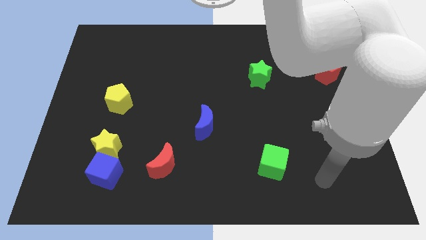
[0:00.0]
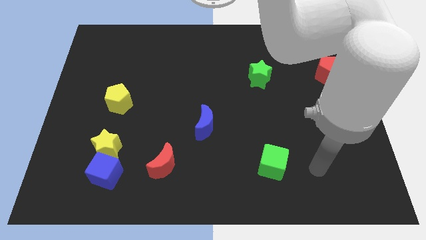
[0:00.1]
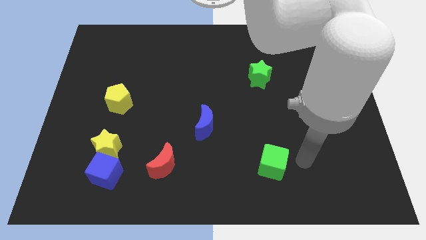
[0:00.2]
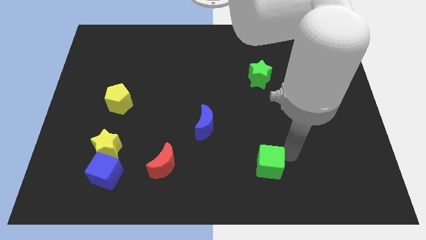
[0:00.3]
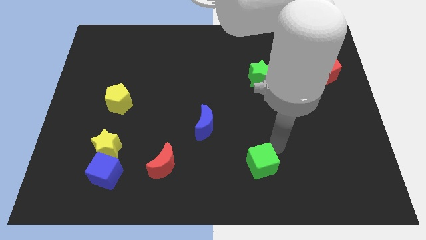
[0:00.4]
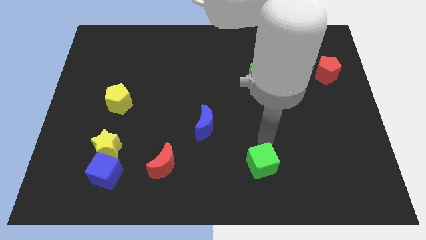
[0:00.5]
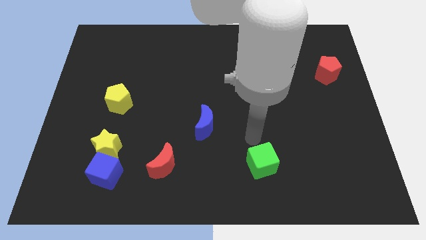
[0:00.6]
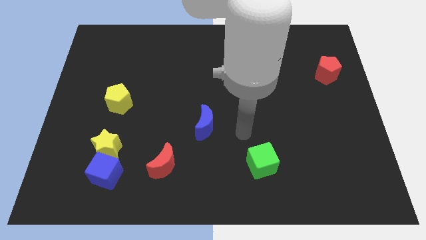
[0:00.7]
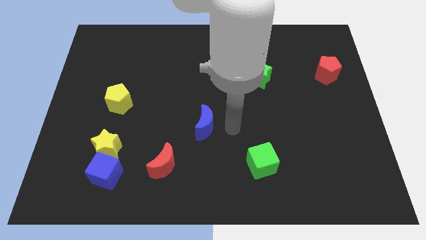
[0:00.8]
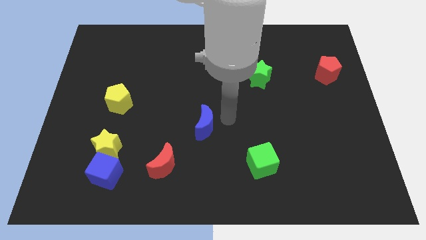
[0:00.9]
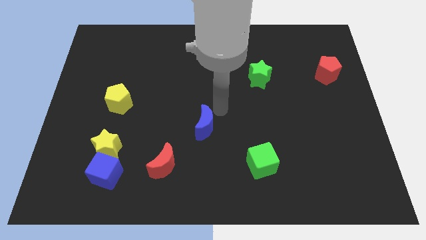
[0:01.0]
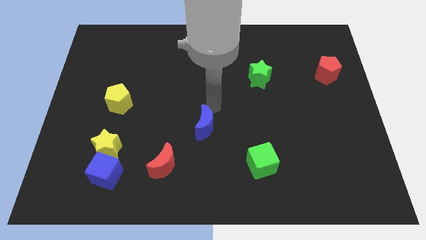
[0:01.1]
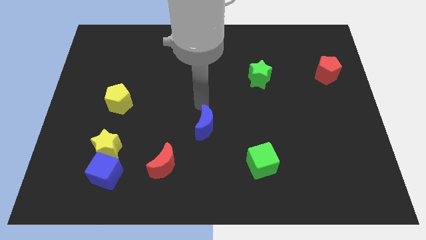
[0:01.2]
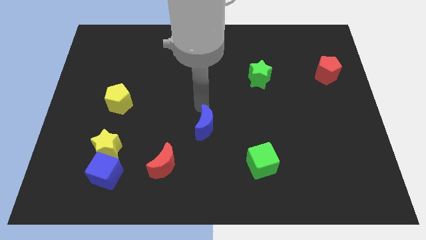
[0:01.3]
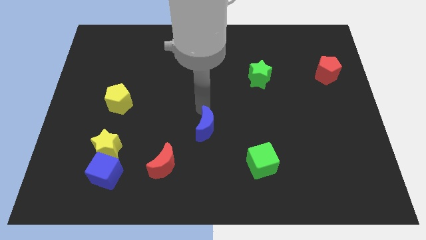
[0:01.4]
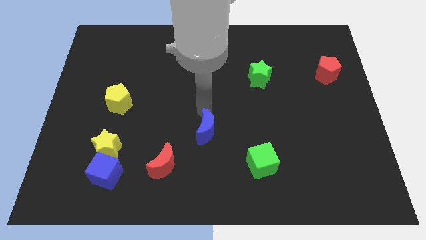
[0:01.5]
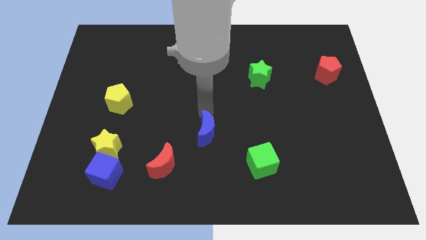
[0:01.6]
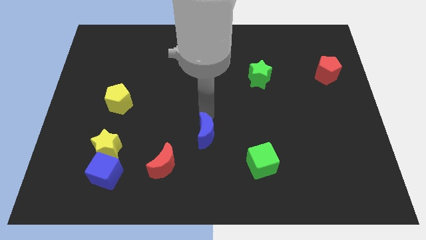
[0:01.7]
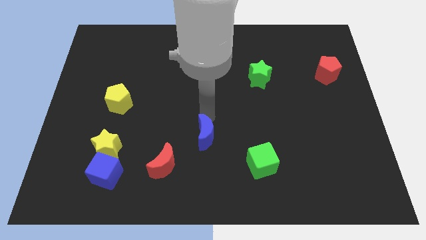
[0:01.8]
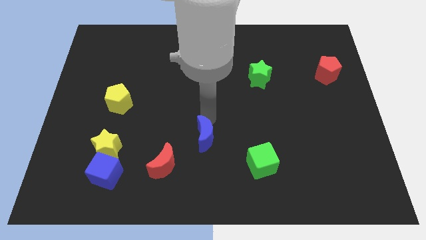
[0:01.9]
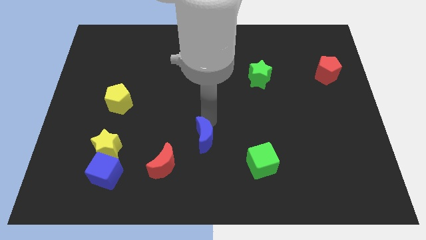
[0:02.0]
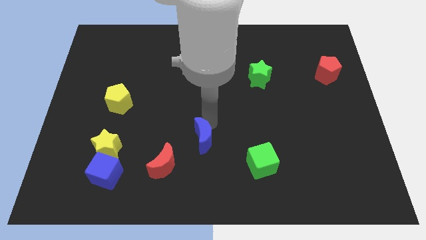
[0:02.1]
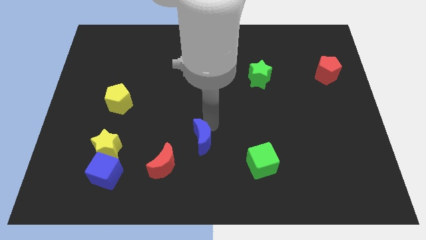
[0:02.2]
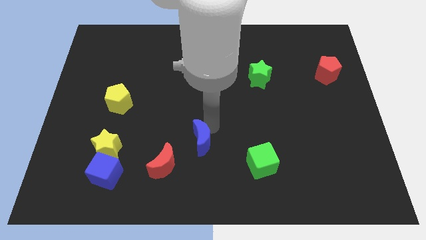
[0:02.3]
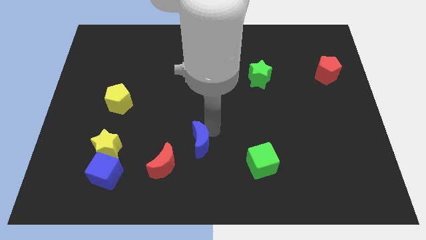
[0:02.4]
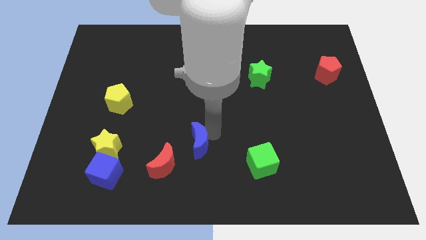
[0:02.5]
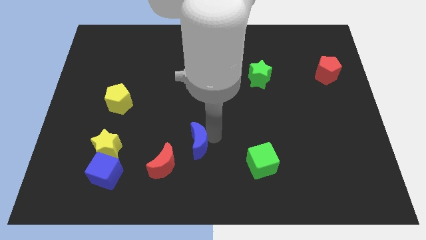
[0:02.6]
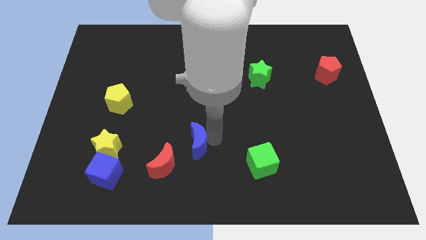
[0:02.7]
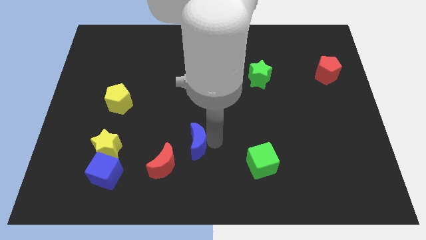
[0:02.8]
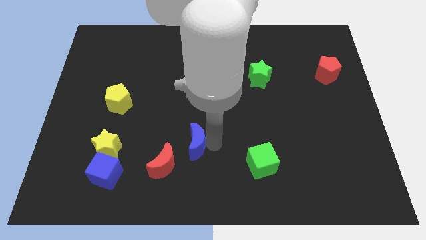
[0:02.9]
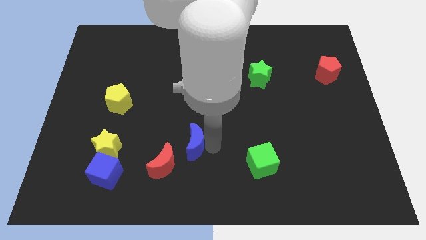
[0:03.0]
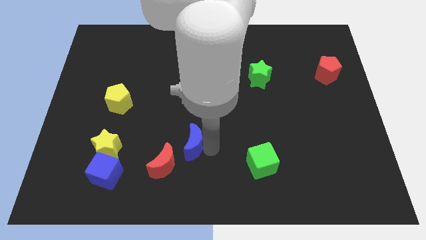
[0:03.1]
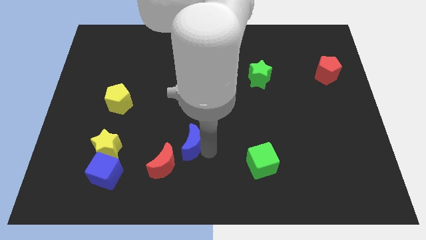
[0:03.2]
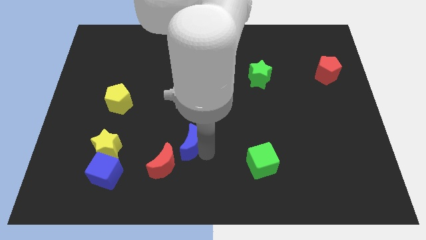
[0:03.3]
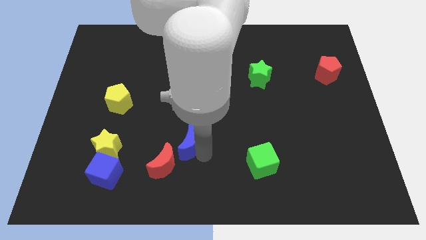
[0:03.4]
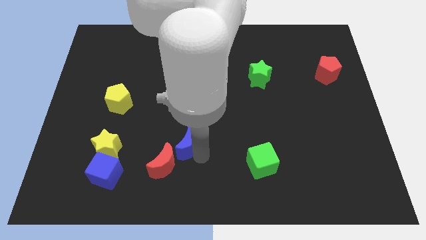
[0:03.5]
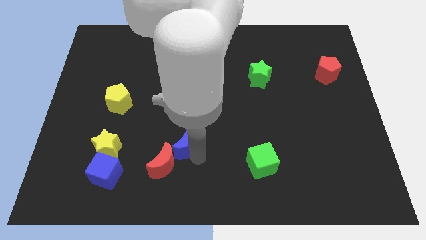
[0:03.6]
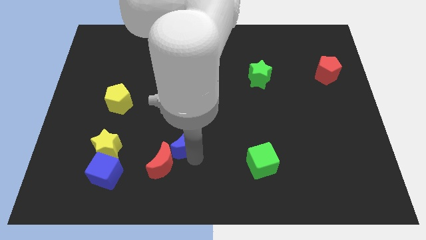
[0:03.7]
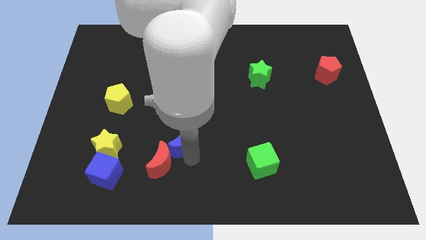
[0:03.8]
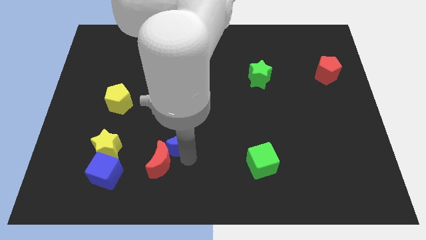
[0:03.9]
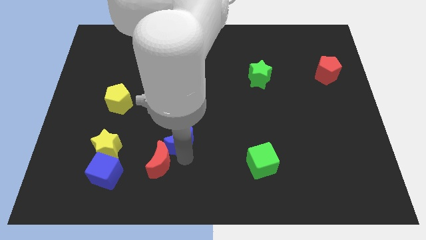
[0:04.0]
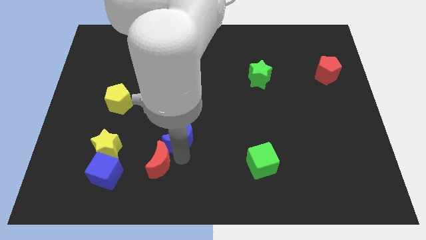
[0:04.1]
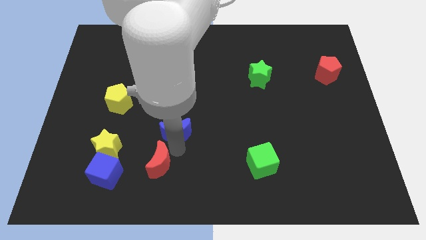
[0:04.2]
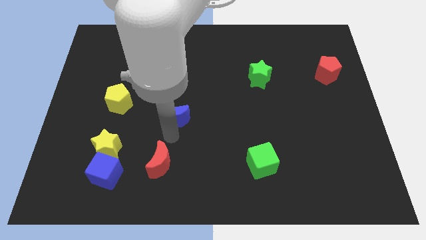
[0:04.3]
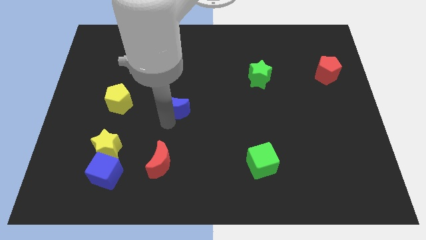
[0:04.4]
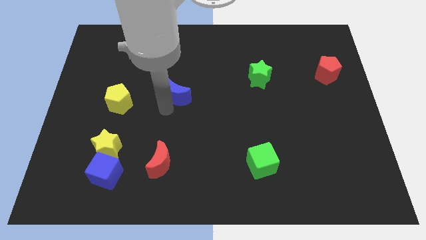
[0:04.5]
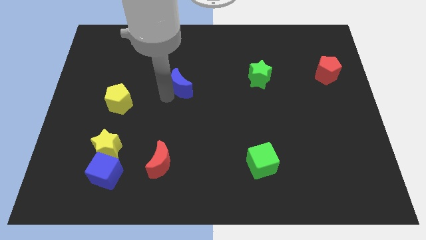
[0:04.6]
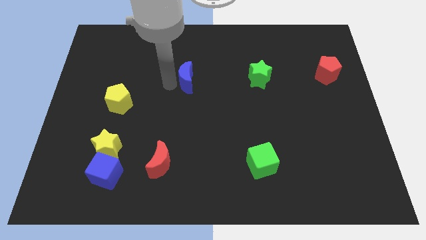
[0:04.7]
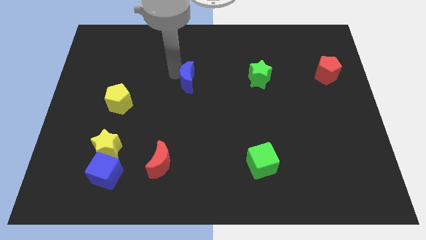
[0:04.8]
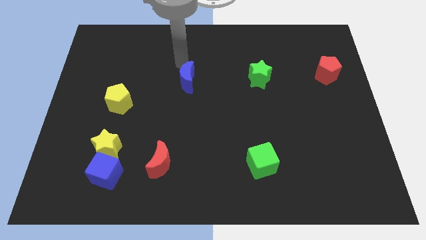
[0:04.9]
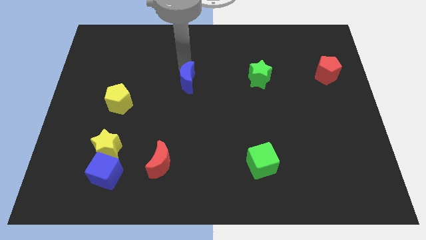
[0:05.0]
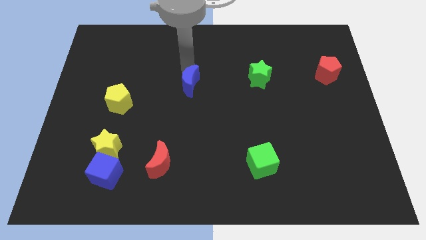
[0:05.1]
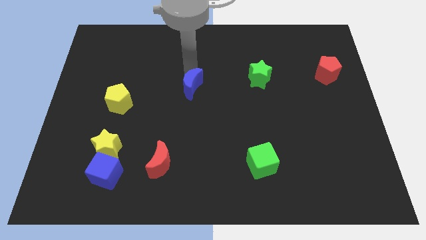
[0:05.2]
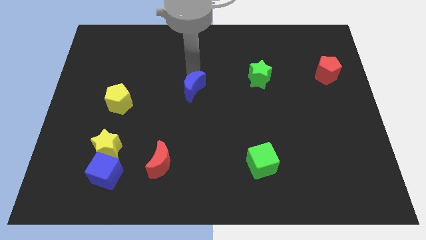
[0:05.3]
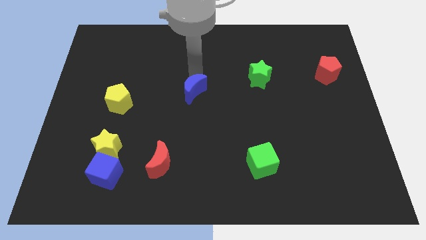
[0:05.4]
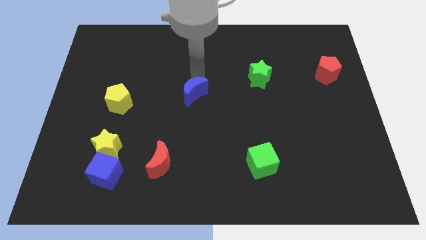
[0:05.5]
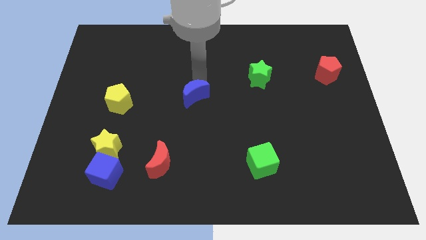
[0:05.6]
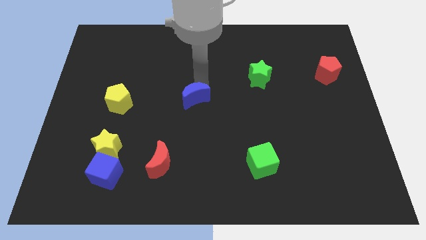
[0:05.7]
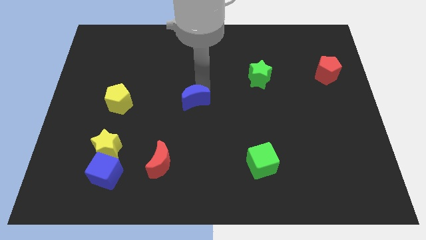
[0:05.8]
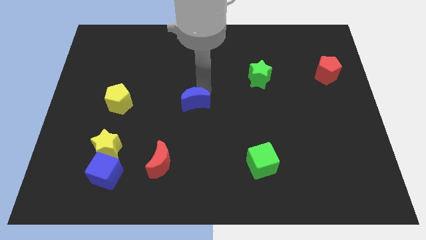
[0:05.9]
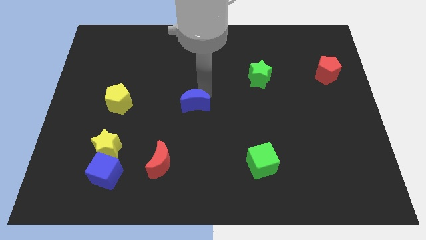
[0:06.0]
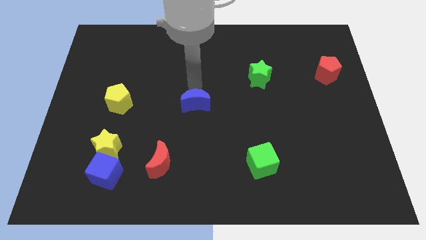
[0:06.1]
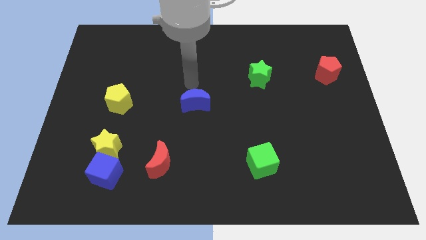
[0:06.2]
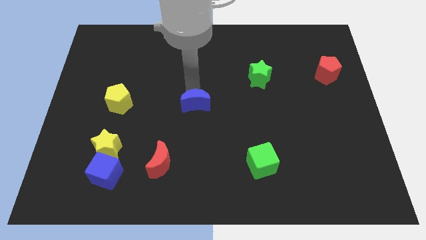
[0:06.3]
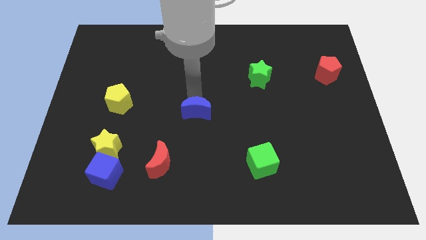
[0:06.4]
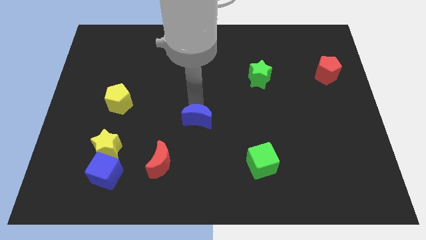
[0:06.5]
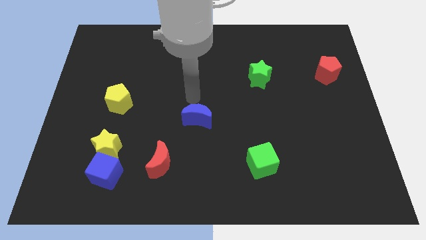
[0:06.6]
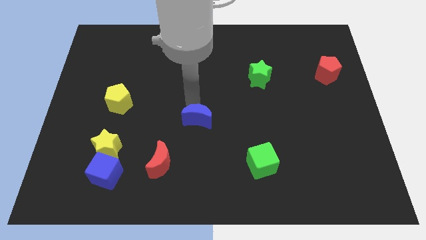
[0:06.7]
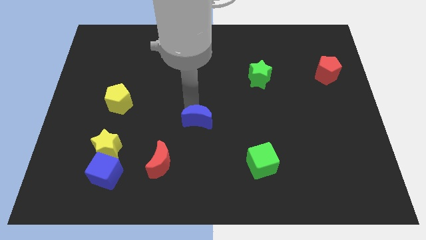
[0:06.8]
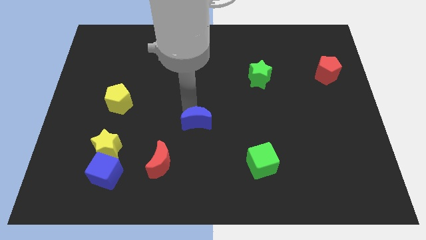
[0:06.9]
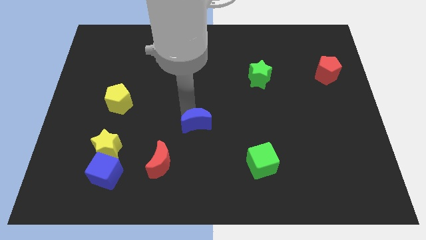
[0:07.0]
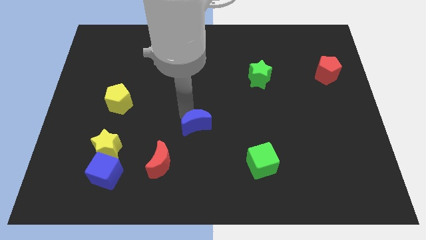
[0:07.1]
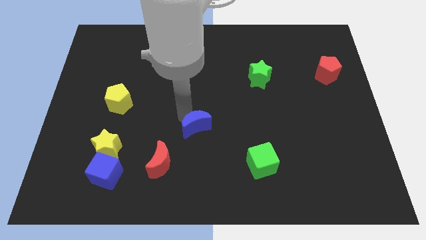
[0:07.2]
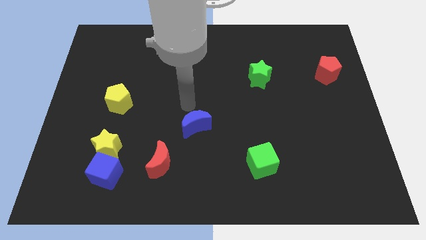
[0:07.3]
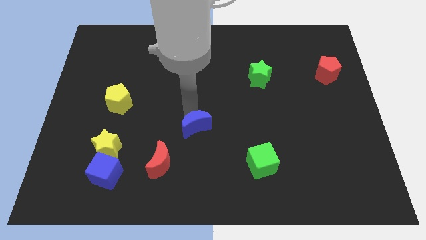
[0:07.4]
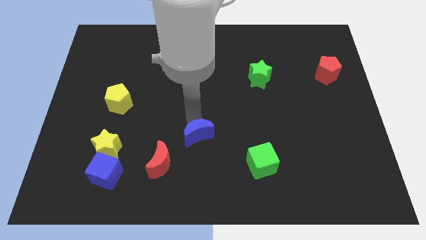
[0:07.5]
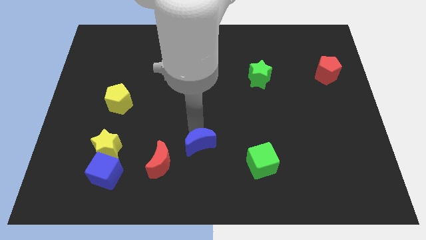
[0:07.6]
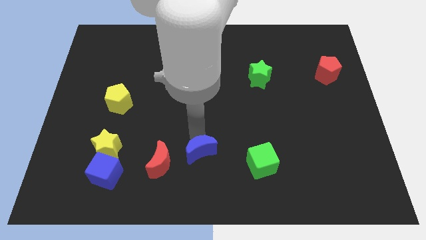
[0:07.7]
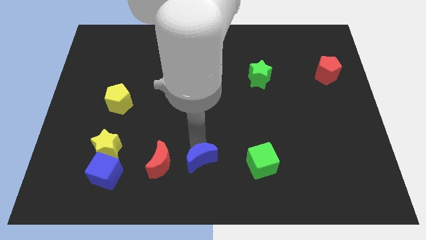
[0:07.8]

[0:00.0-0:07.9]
slide the blue moon to the bottom side
